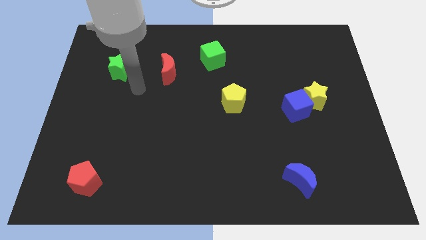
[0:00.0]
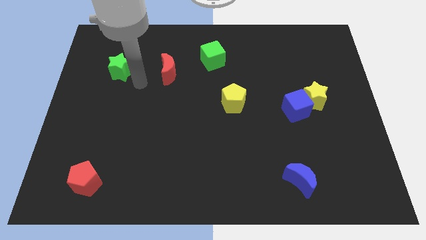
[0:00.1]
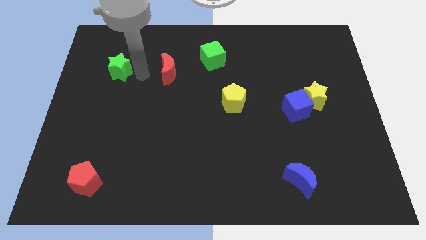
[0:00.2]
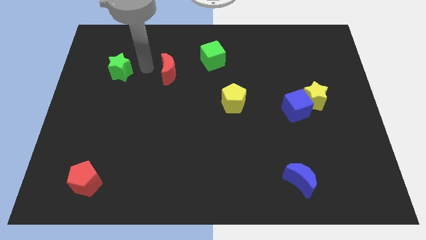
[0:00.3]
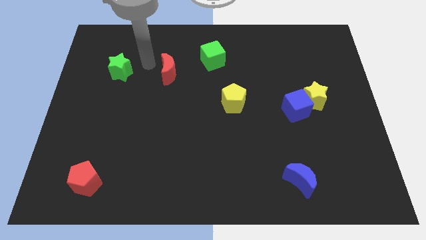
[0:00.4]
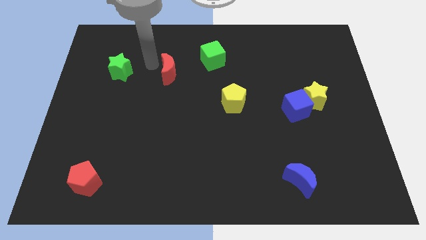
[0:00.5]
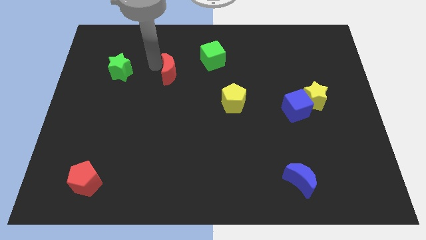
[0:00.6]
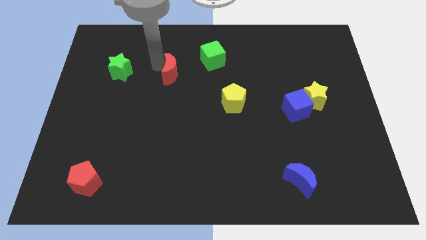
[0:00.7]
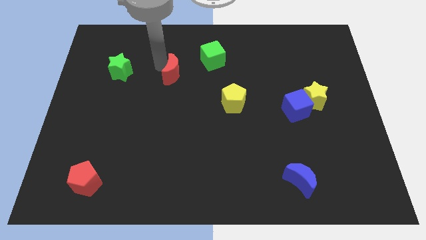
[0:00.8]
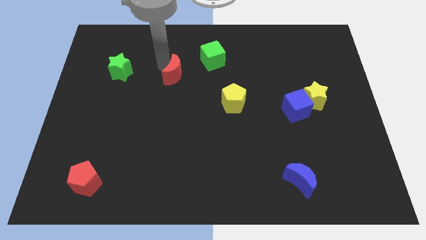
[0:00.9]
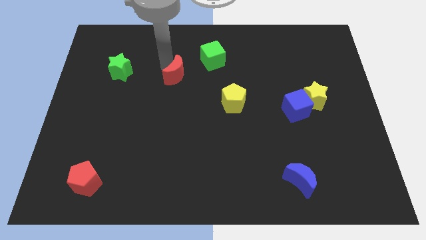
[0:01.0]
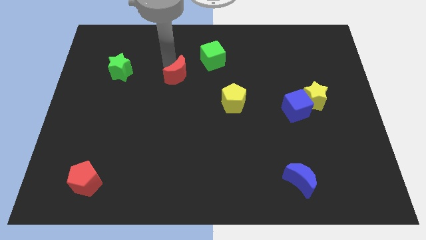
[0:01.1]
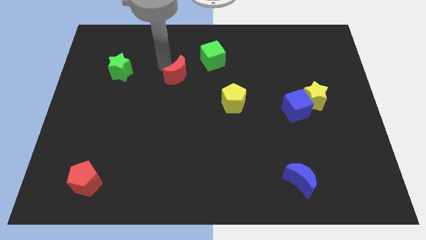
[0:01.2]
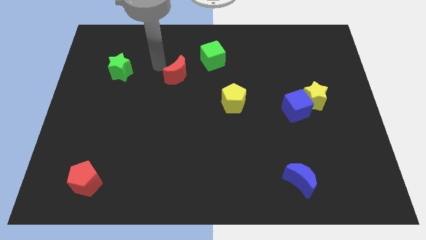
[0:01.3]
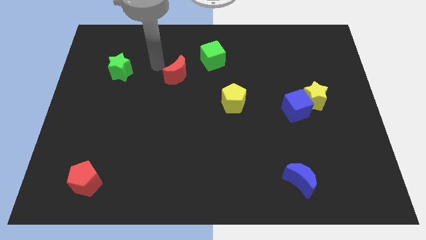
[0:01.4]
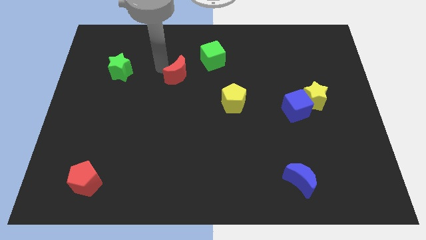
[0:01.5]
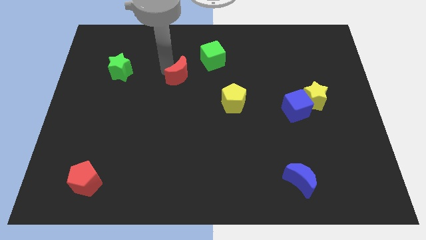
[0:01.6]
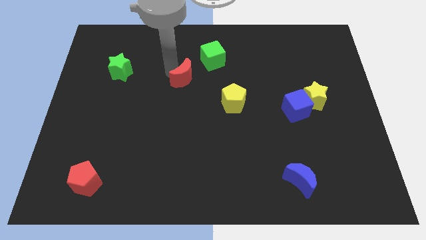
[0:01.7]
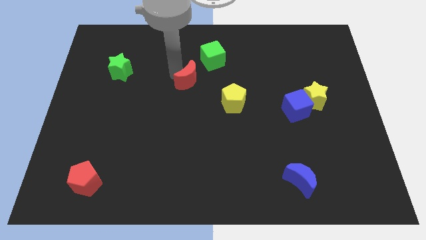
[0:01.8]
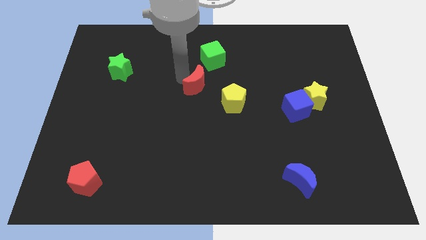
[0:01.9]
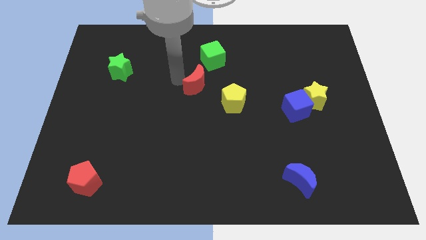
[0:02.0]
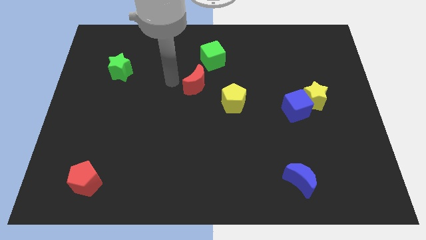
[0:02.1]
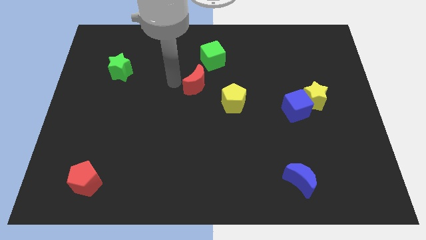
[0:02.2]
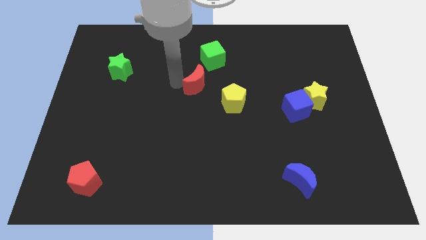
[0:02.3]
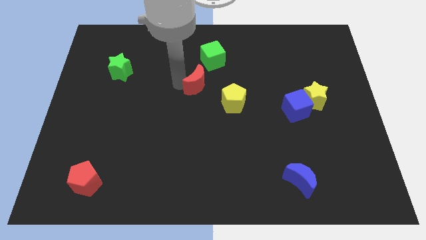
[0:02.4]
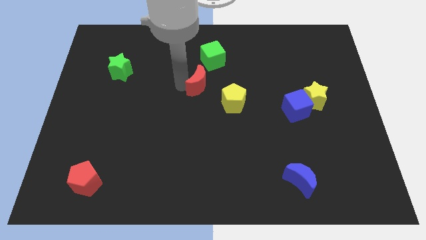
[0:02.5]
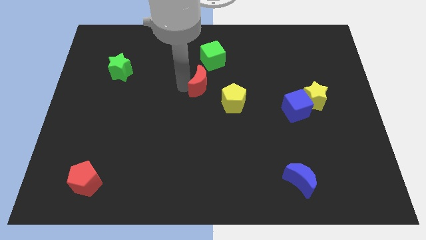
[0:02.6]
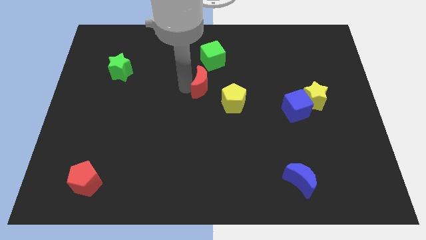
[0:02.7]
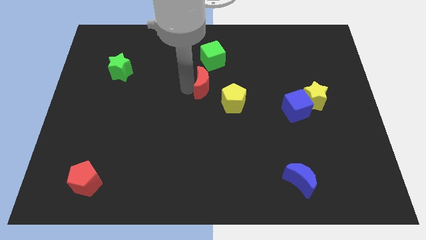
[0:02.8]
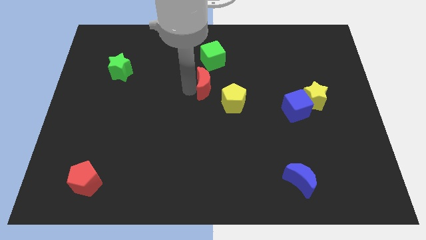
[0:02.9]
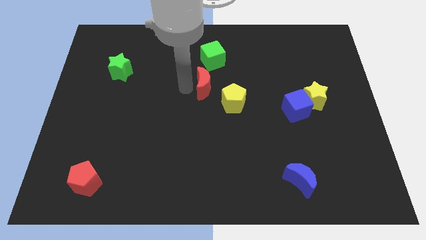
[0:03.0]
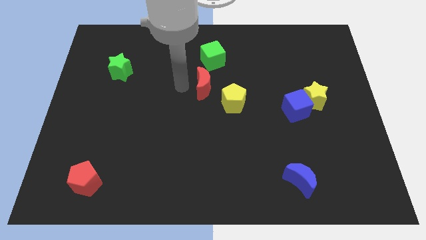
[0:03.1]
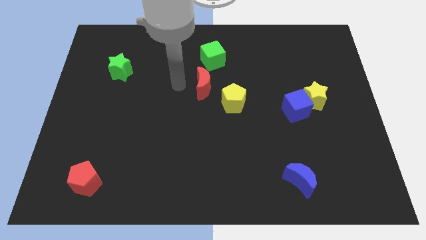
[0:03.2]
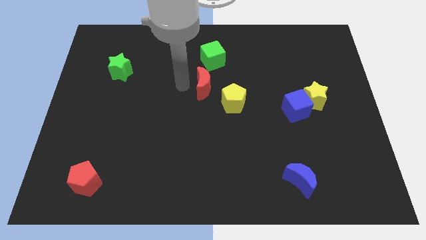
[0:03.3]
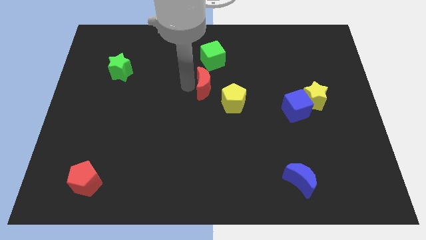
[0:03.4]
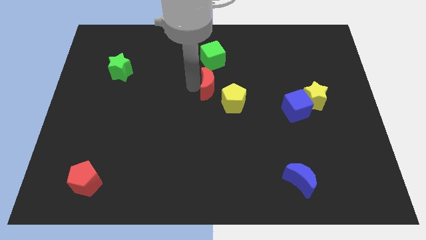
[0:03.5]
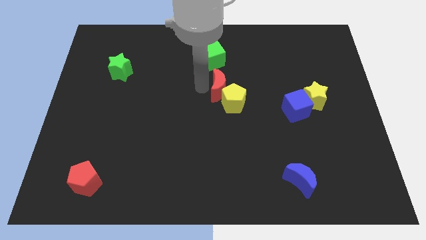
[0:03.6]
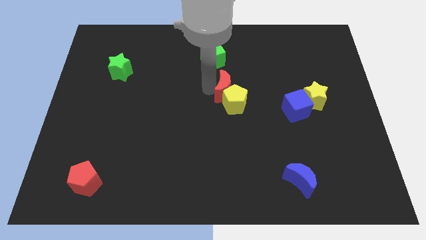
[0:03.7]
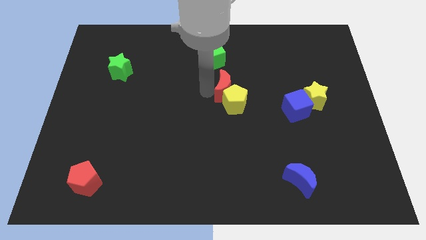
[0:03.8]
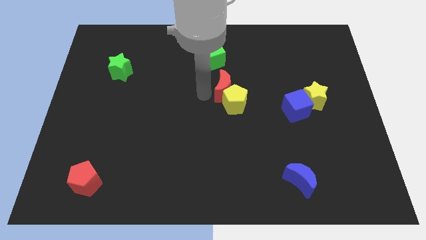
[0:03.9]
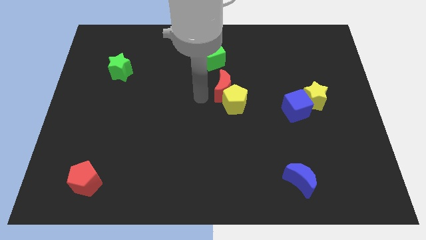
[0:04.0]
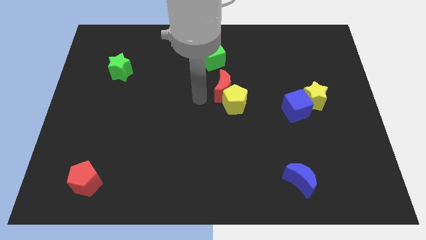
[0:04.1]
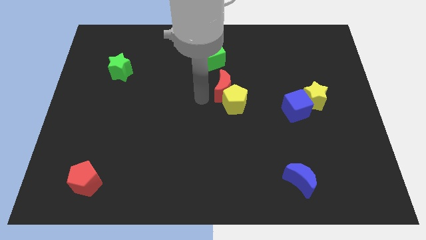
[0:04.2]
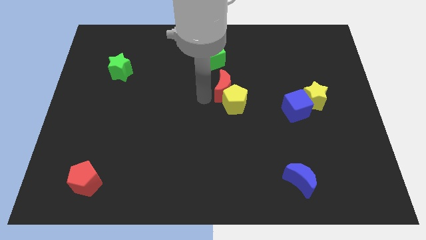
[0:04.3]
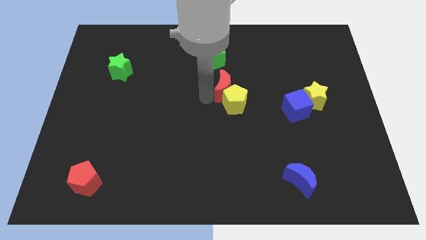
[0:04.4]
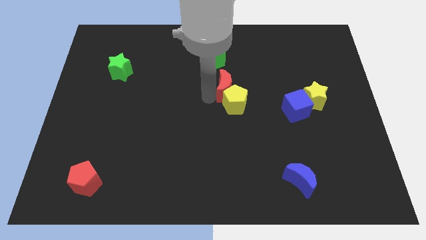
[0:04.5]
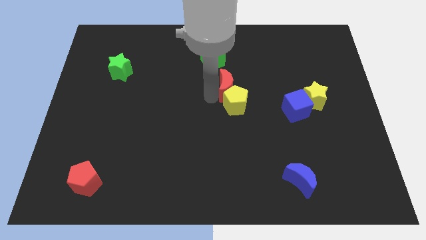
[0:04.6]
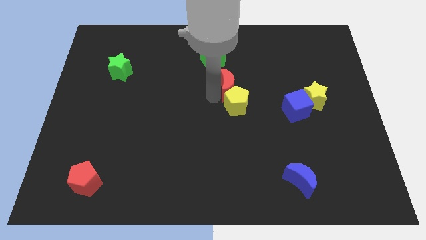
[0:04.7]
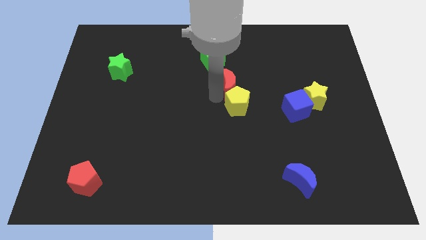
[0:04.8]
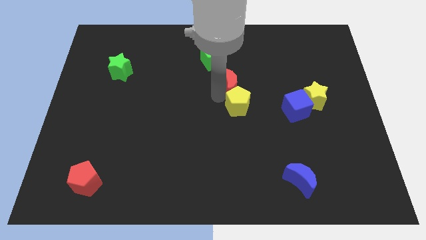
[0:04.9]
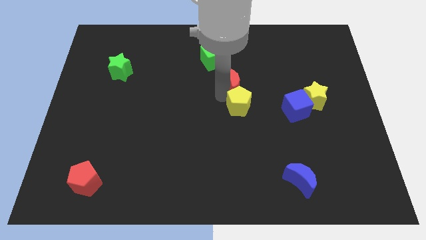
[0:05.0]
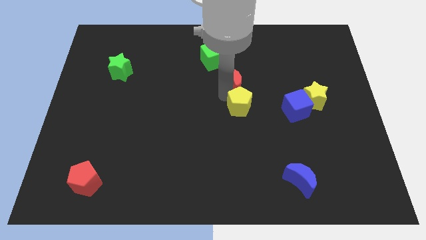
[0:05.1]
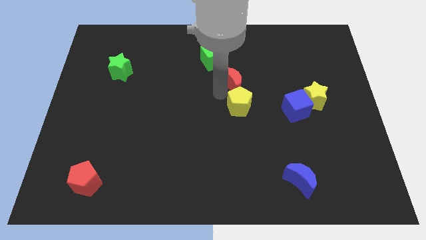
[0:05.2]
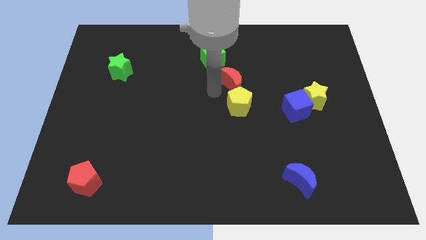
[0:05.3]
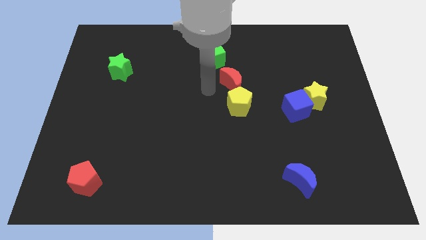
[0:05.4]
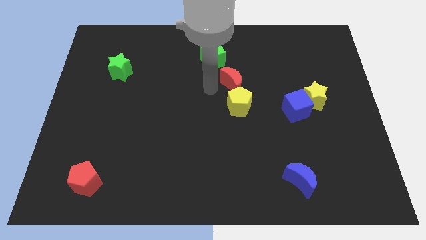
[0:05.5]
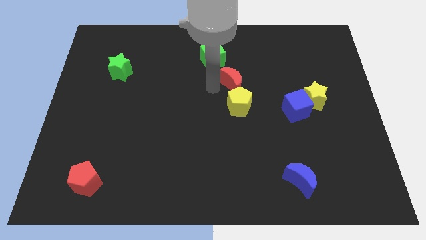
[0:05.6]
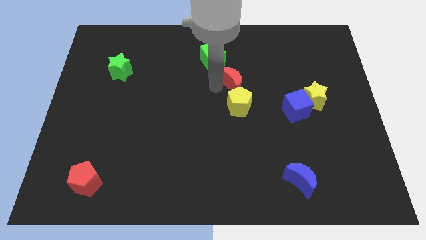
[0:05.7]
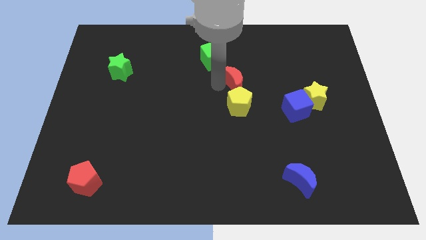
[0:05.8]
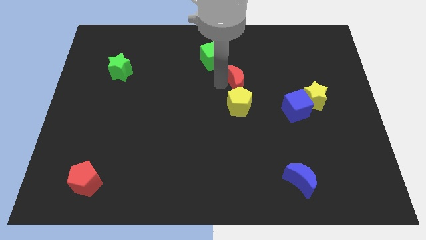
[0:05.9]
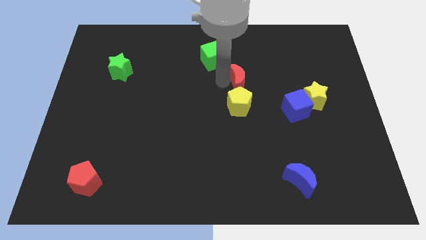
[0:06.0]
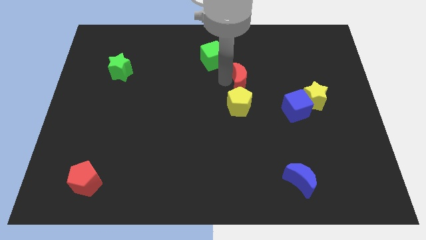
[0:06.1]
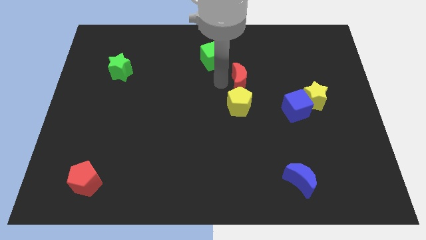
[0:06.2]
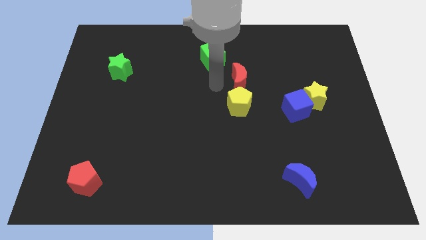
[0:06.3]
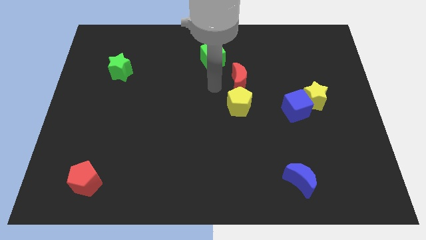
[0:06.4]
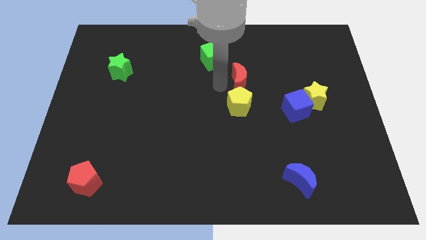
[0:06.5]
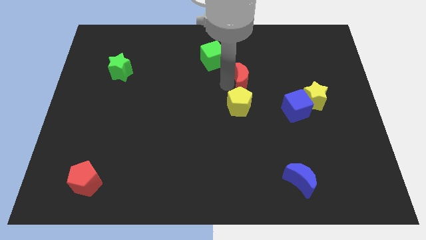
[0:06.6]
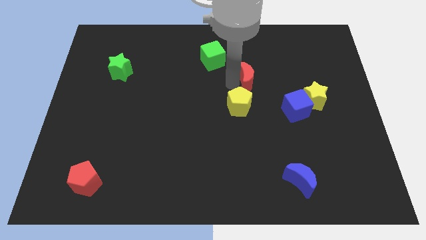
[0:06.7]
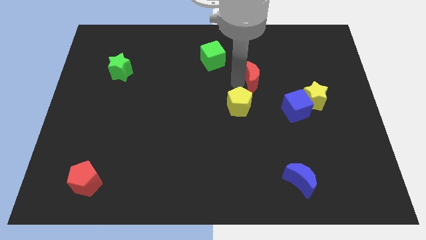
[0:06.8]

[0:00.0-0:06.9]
push the red moon to the right

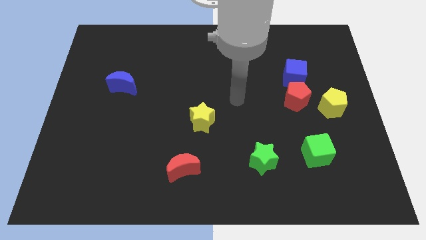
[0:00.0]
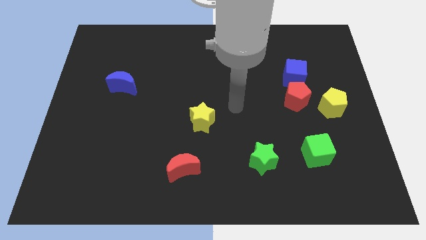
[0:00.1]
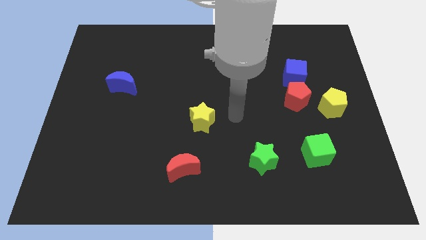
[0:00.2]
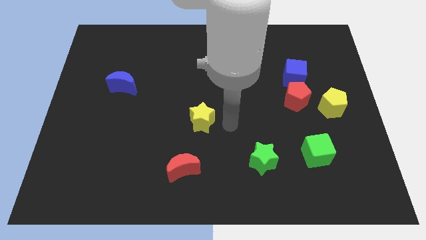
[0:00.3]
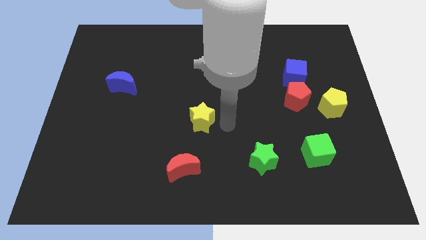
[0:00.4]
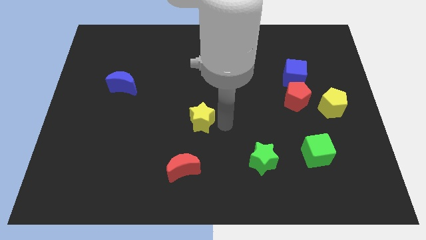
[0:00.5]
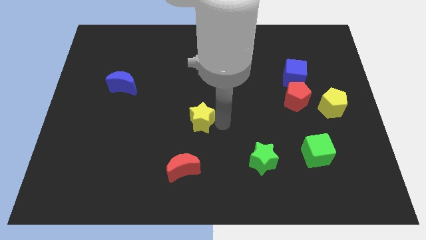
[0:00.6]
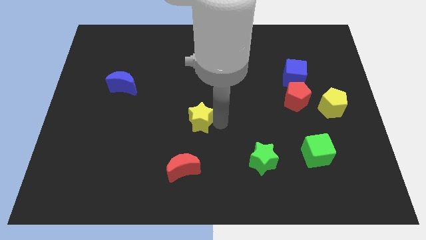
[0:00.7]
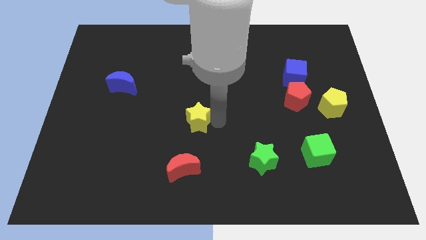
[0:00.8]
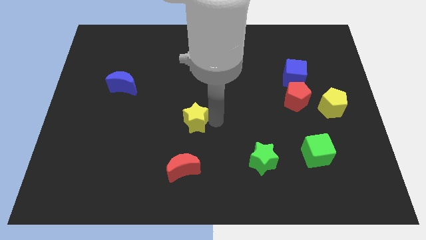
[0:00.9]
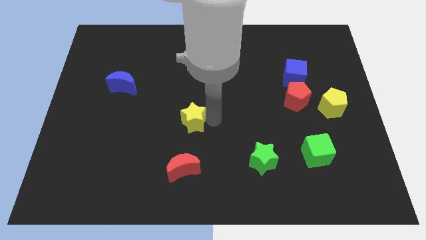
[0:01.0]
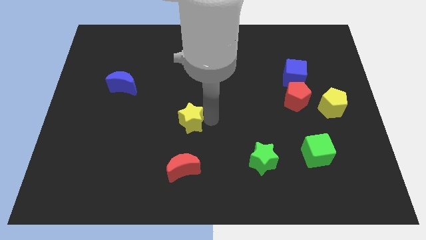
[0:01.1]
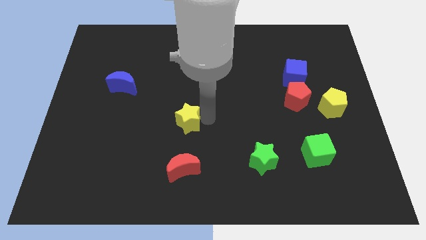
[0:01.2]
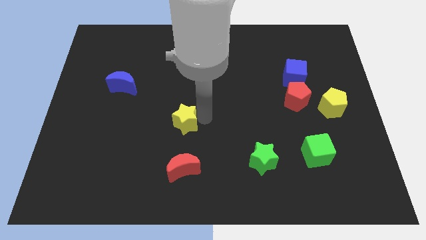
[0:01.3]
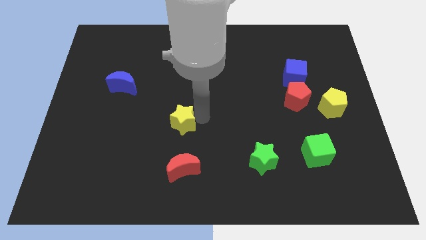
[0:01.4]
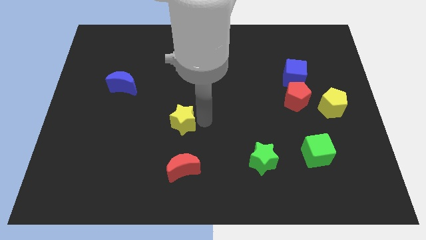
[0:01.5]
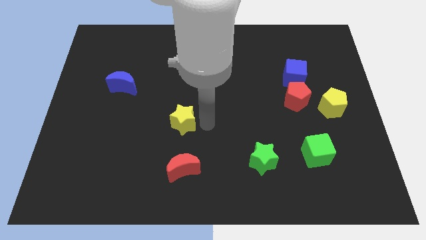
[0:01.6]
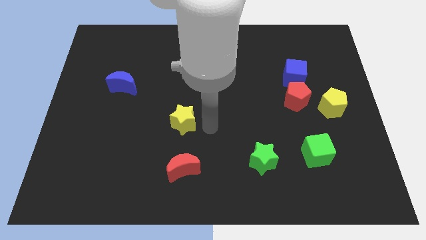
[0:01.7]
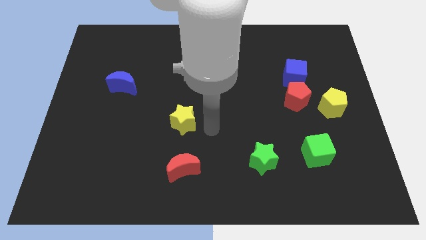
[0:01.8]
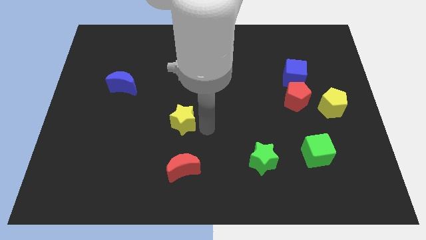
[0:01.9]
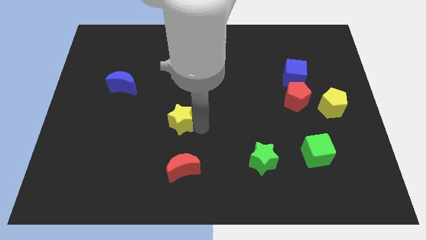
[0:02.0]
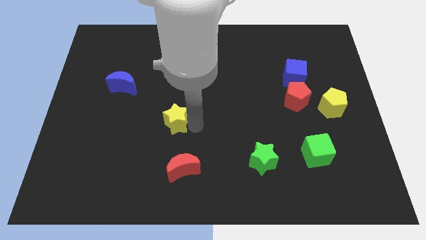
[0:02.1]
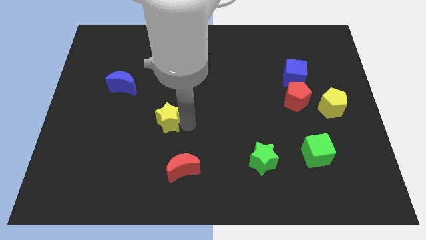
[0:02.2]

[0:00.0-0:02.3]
slightly slide the yellow star to the left
